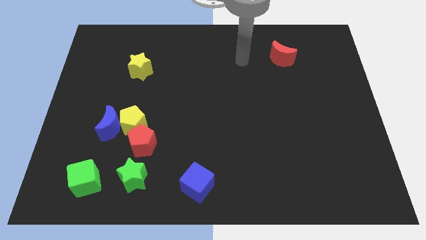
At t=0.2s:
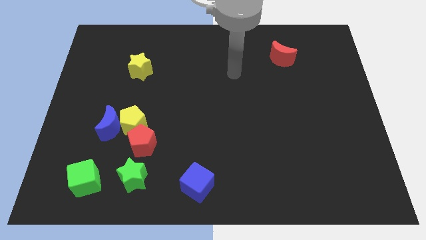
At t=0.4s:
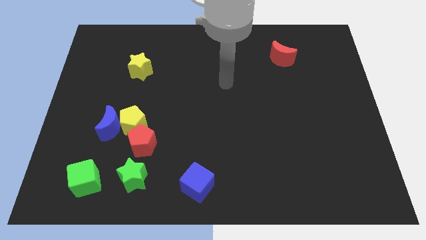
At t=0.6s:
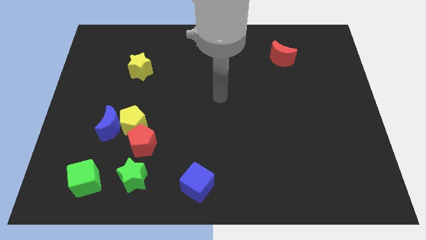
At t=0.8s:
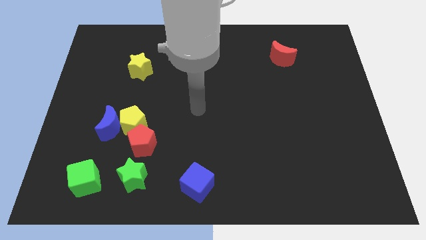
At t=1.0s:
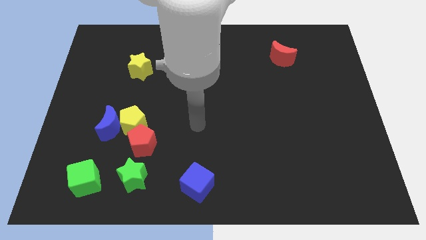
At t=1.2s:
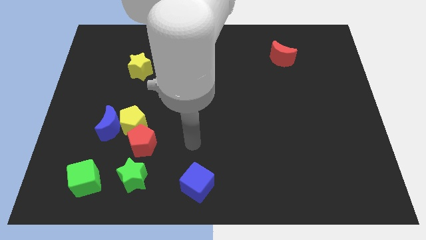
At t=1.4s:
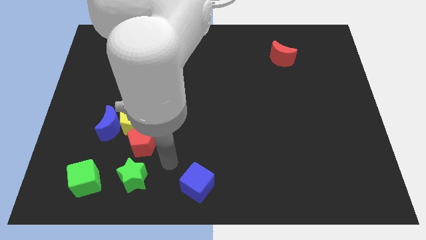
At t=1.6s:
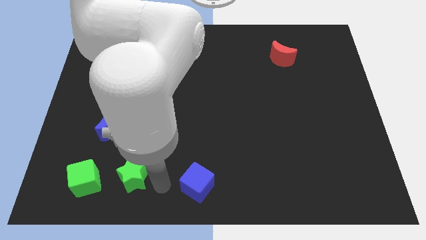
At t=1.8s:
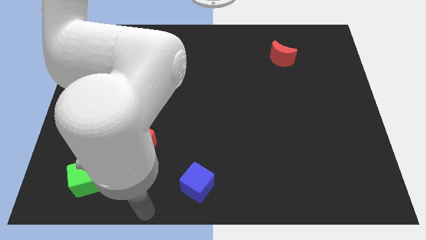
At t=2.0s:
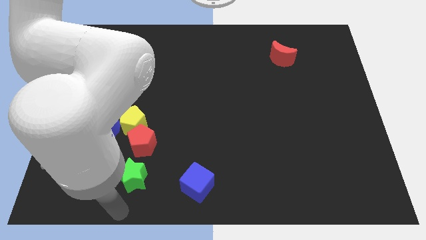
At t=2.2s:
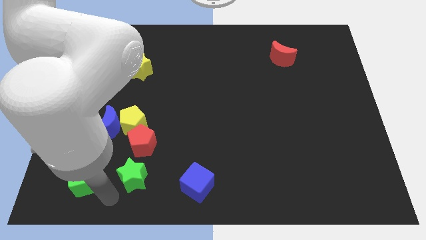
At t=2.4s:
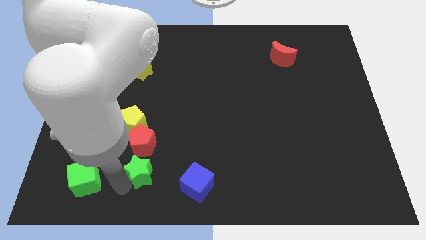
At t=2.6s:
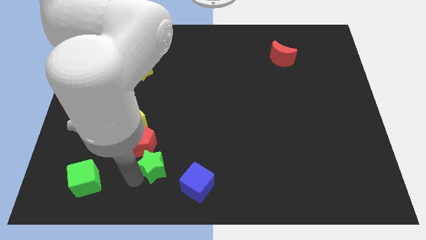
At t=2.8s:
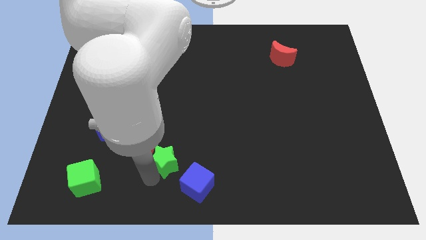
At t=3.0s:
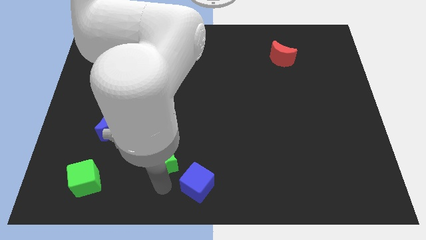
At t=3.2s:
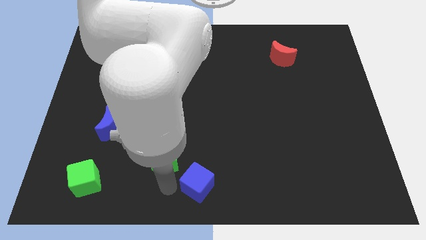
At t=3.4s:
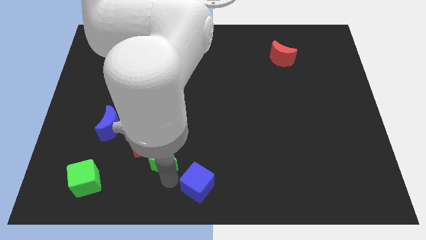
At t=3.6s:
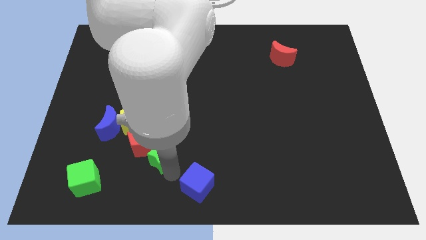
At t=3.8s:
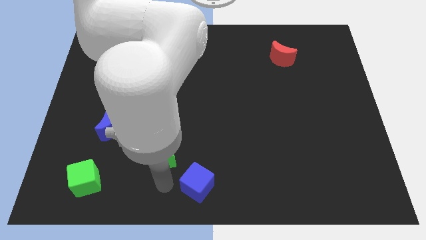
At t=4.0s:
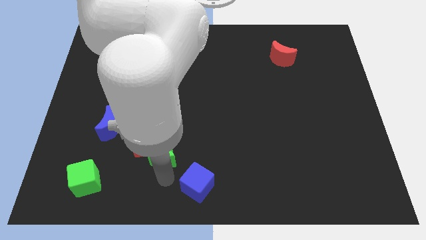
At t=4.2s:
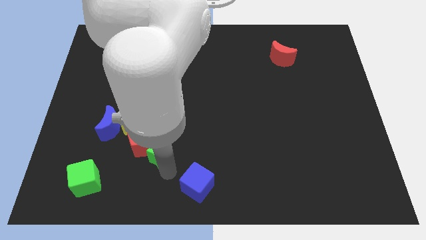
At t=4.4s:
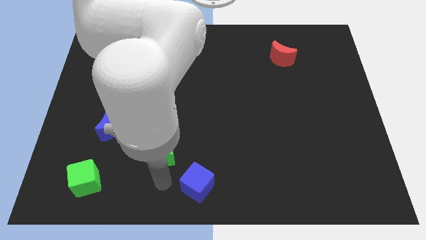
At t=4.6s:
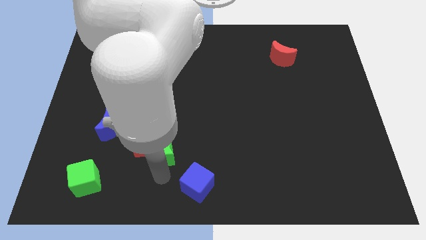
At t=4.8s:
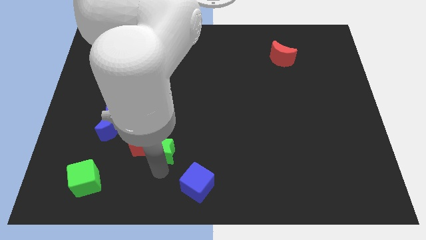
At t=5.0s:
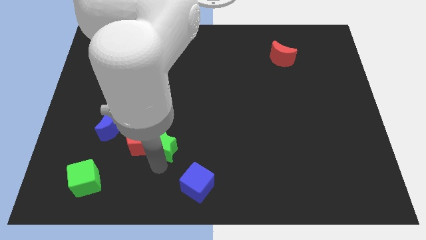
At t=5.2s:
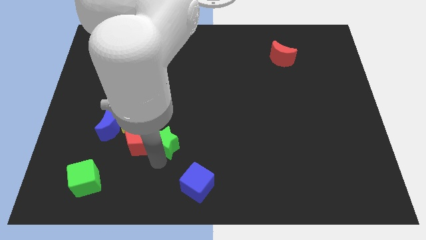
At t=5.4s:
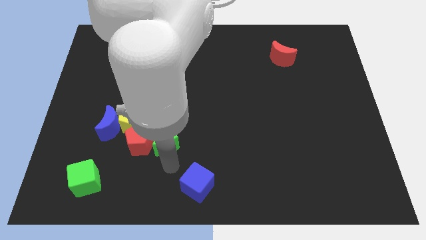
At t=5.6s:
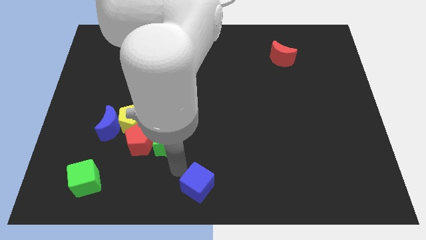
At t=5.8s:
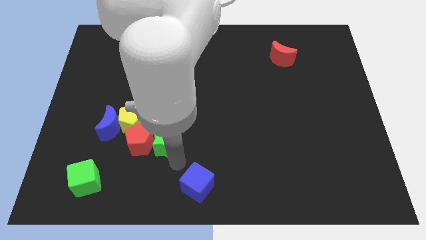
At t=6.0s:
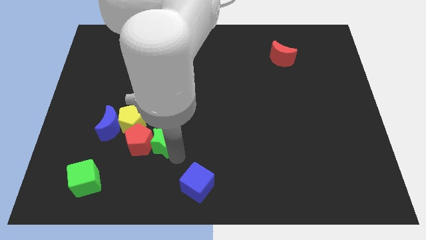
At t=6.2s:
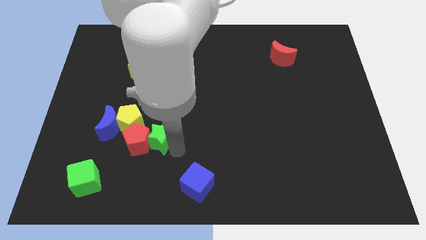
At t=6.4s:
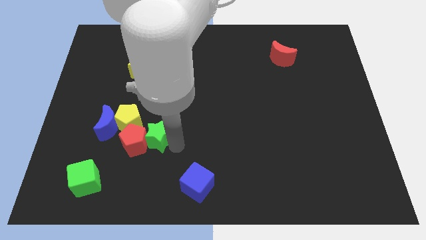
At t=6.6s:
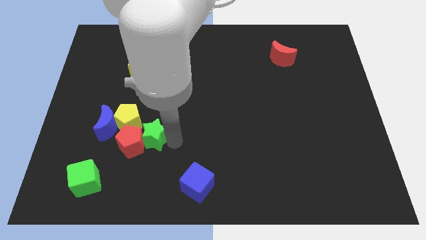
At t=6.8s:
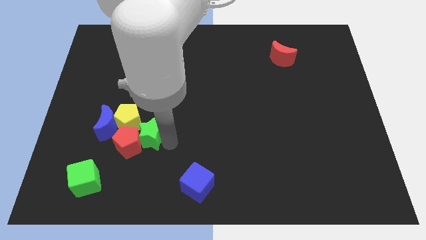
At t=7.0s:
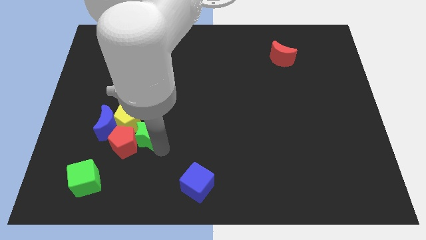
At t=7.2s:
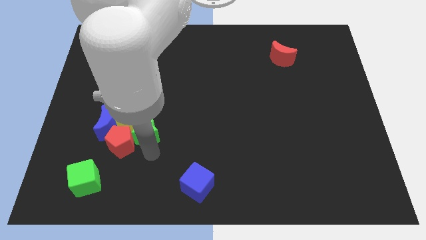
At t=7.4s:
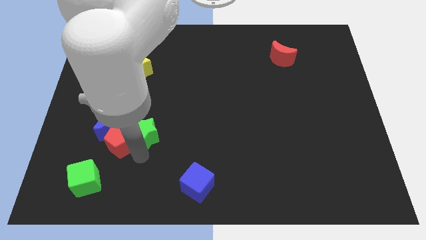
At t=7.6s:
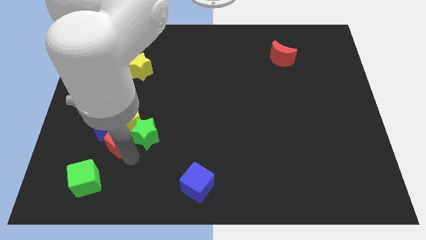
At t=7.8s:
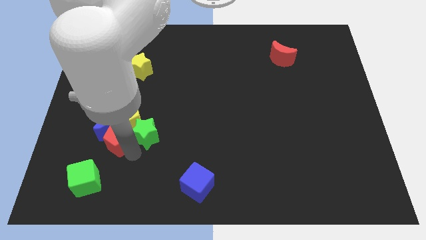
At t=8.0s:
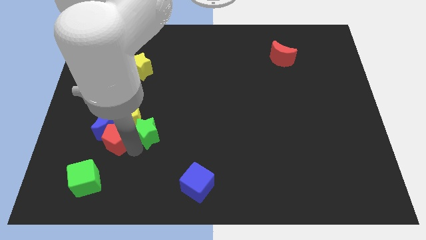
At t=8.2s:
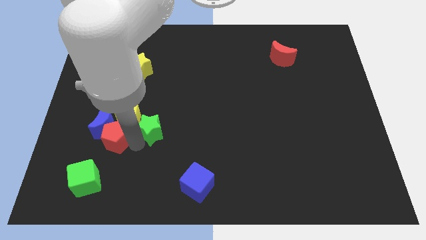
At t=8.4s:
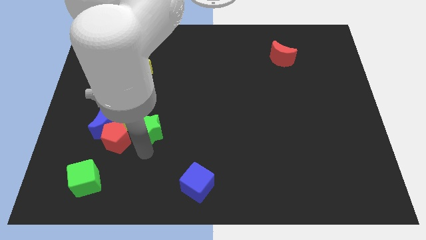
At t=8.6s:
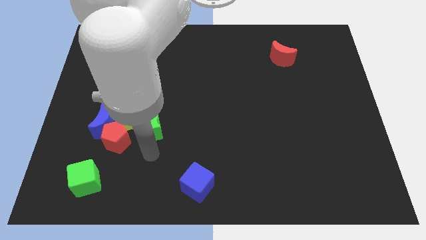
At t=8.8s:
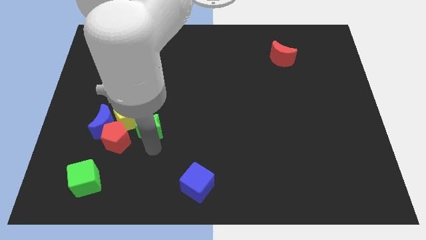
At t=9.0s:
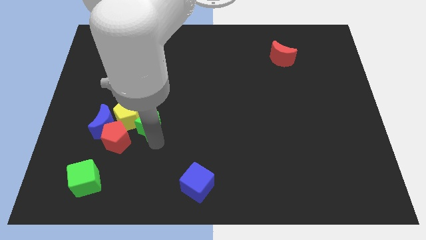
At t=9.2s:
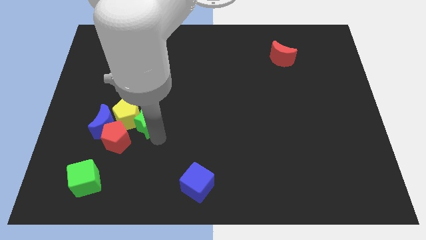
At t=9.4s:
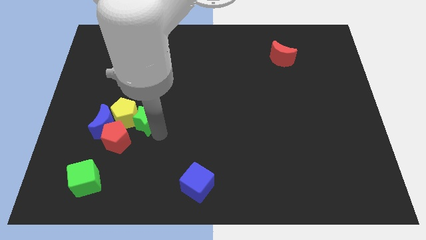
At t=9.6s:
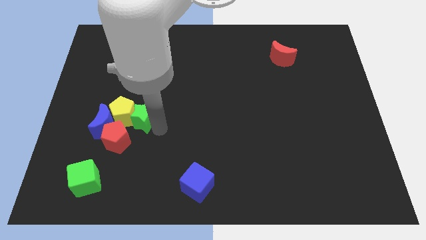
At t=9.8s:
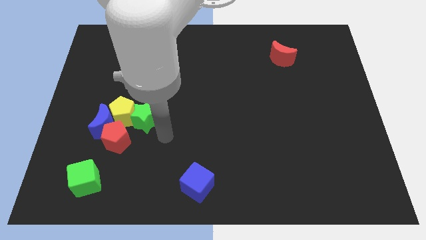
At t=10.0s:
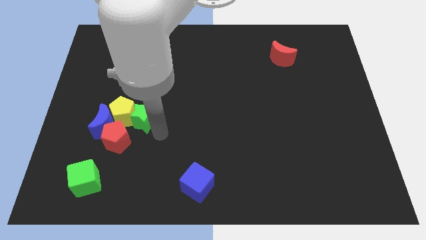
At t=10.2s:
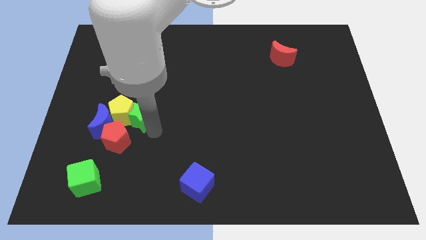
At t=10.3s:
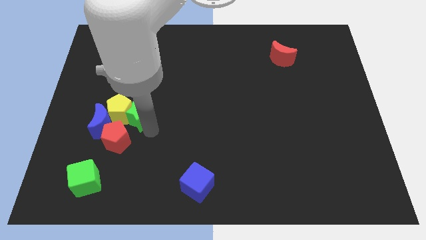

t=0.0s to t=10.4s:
move the green star diagonally up and to the right of the blue moon

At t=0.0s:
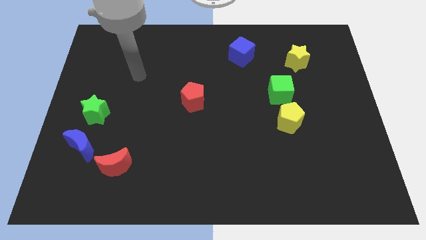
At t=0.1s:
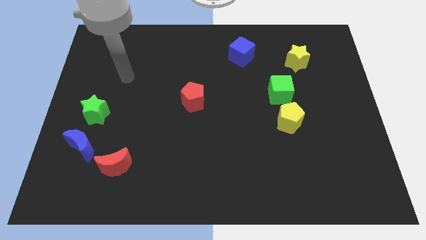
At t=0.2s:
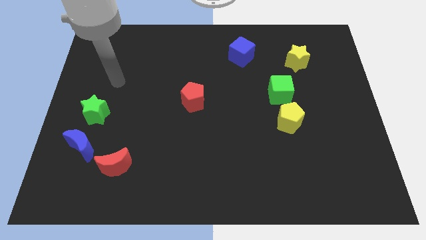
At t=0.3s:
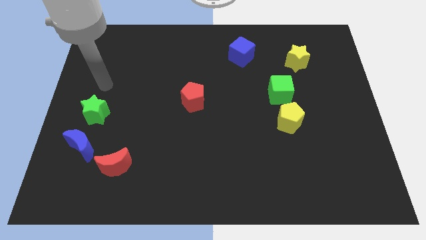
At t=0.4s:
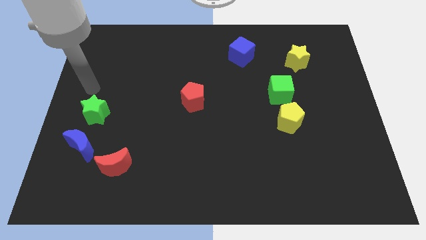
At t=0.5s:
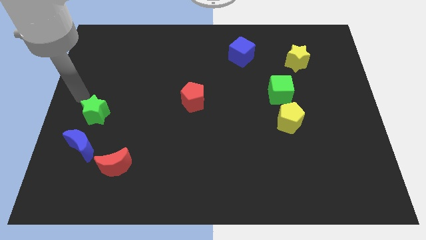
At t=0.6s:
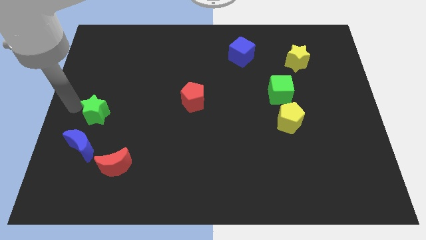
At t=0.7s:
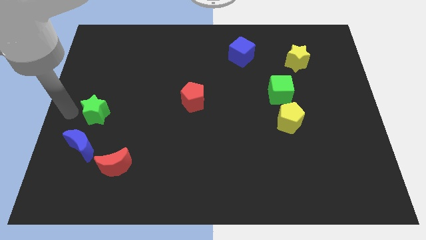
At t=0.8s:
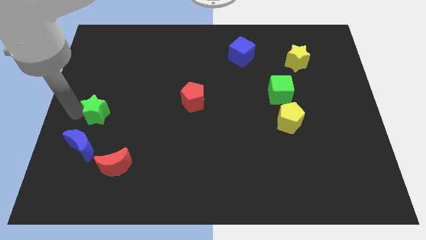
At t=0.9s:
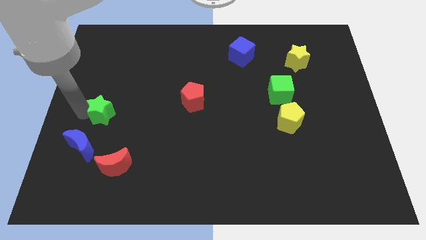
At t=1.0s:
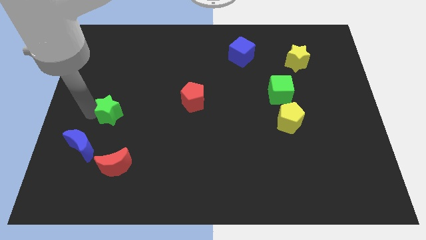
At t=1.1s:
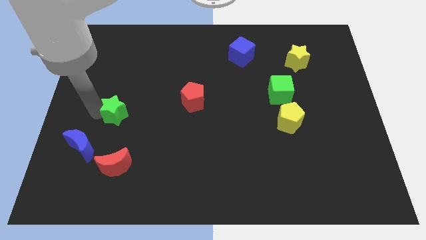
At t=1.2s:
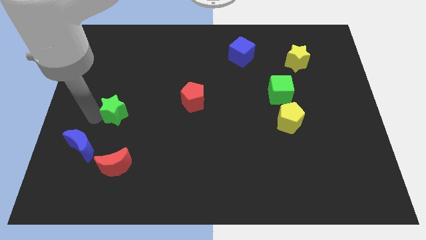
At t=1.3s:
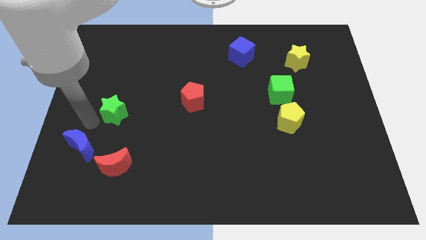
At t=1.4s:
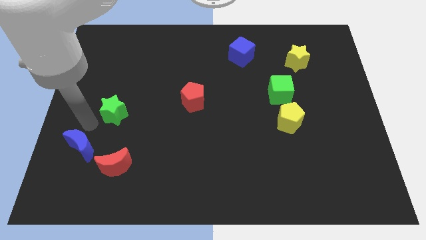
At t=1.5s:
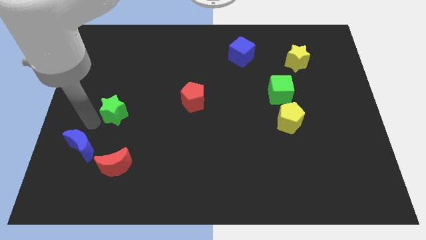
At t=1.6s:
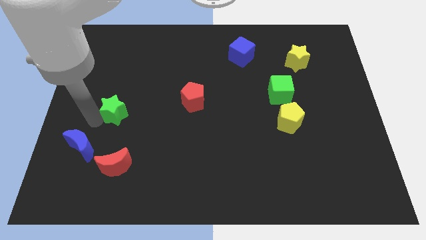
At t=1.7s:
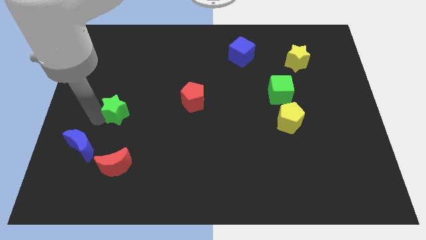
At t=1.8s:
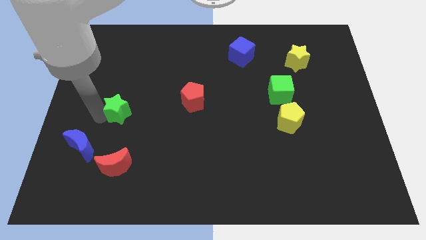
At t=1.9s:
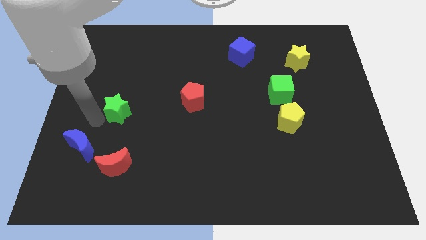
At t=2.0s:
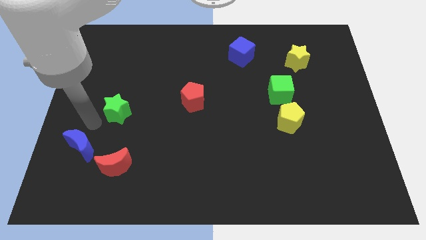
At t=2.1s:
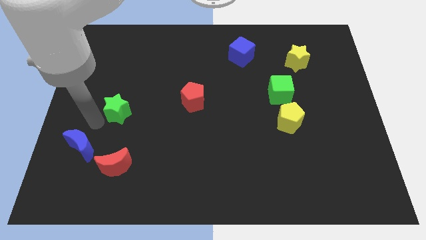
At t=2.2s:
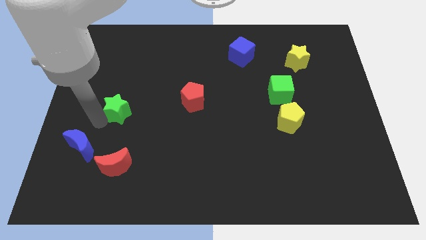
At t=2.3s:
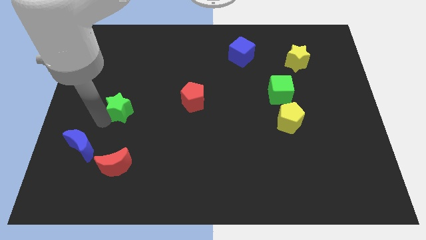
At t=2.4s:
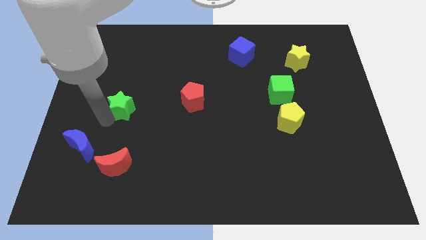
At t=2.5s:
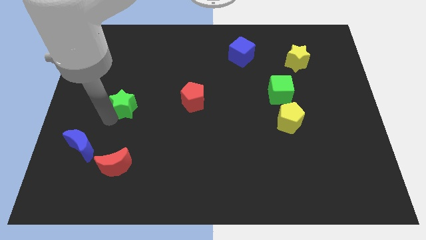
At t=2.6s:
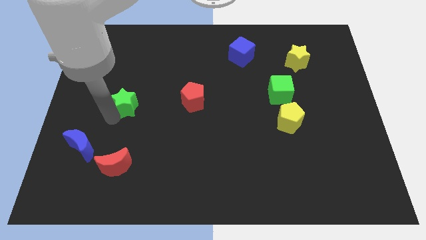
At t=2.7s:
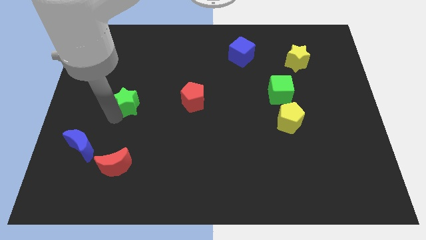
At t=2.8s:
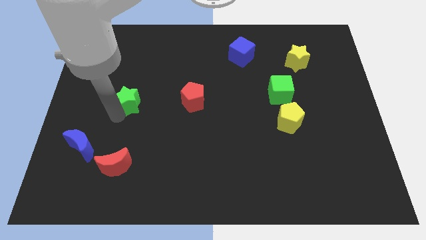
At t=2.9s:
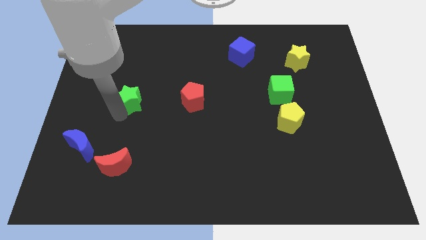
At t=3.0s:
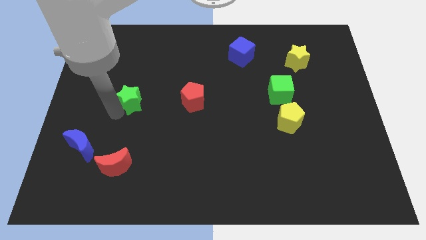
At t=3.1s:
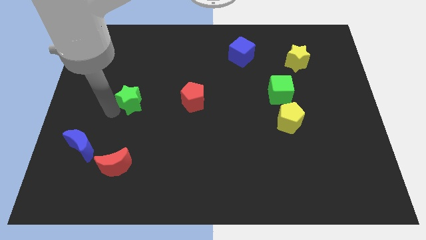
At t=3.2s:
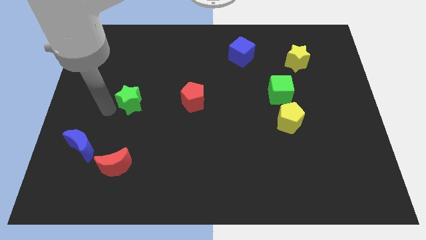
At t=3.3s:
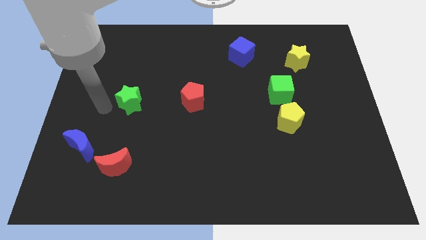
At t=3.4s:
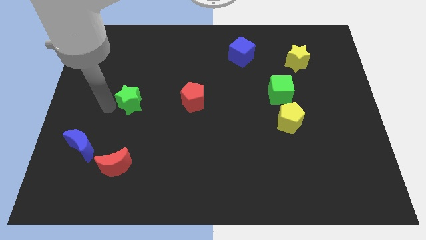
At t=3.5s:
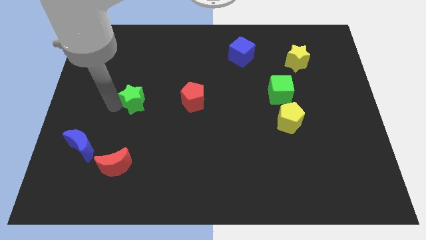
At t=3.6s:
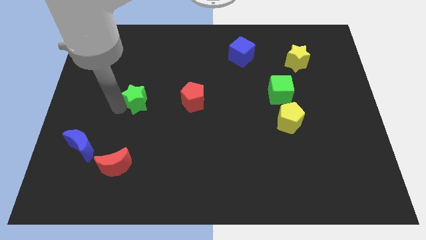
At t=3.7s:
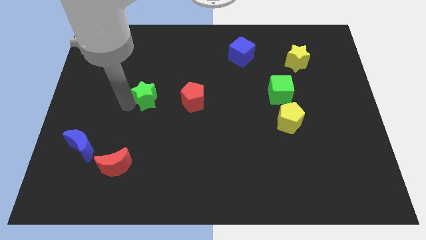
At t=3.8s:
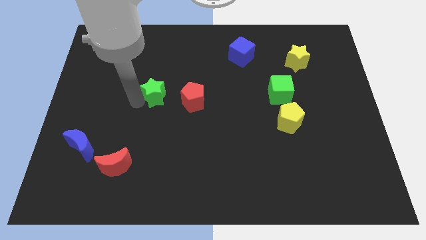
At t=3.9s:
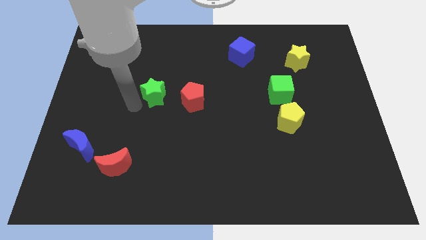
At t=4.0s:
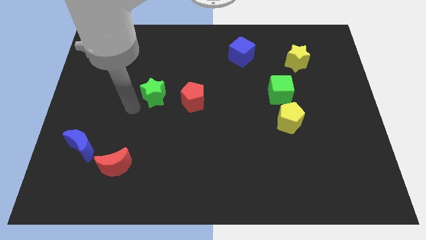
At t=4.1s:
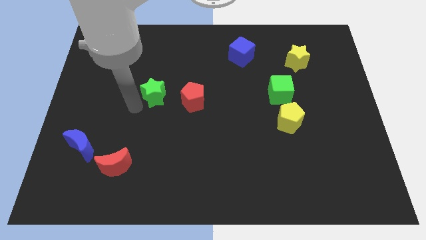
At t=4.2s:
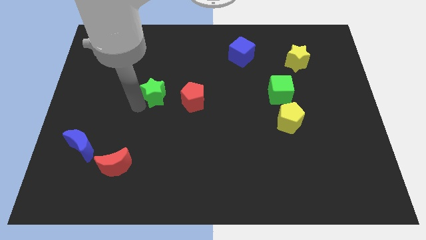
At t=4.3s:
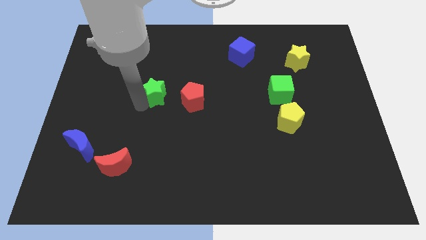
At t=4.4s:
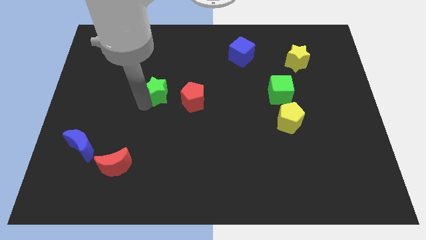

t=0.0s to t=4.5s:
move the green star to the top left side of the red pentagon
